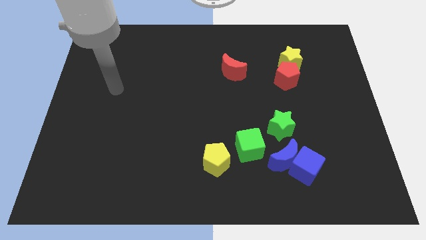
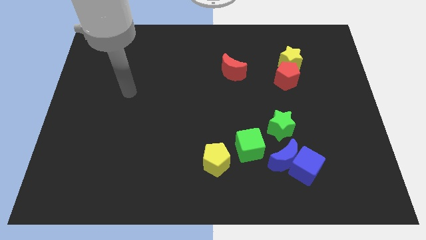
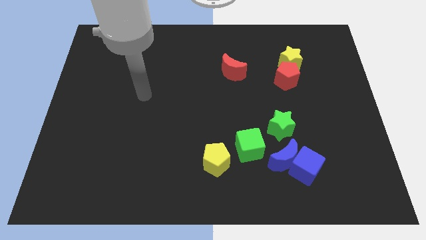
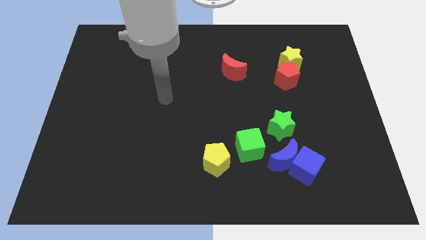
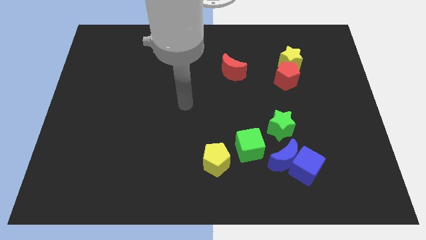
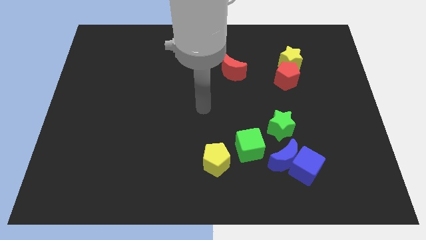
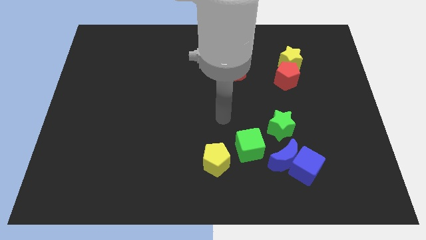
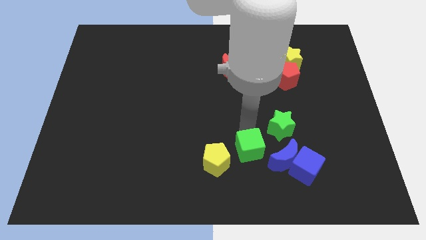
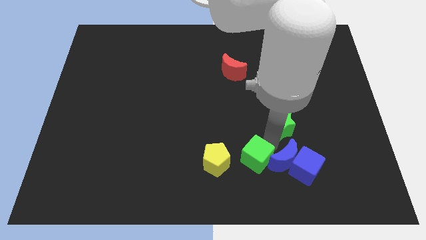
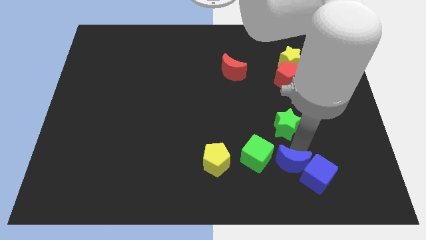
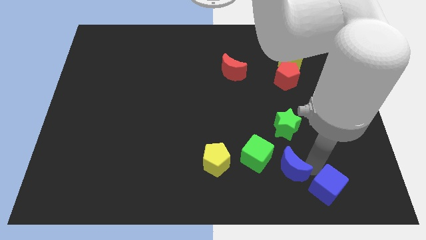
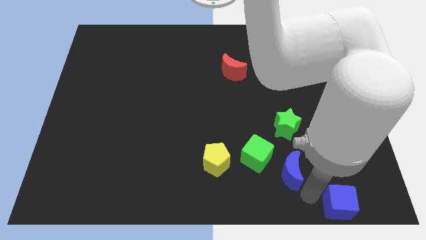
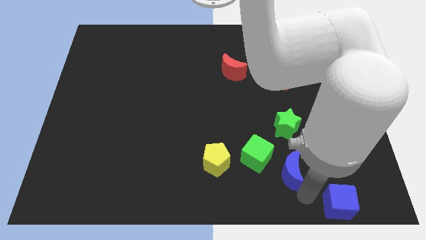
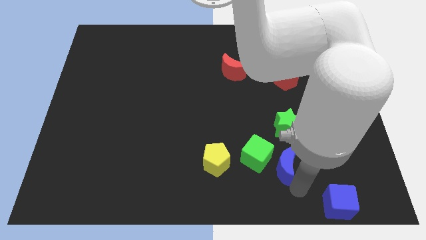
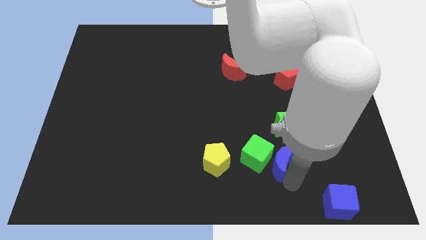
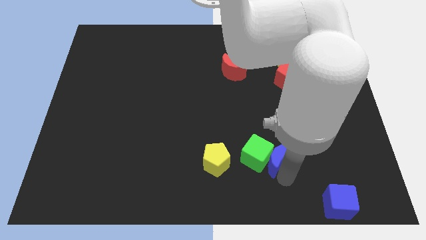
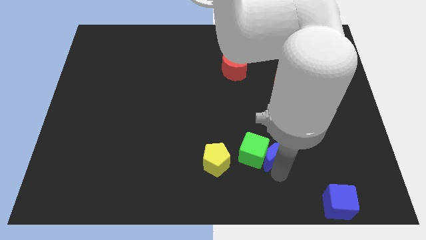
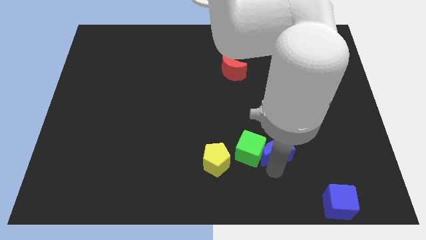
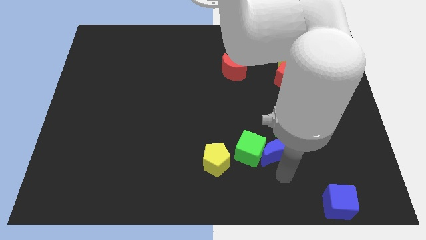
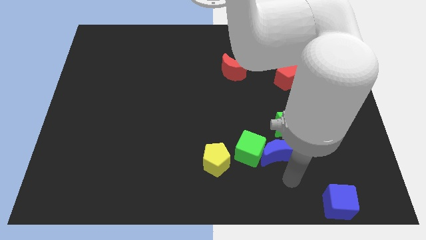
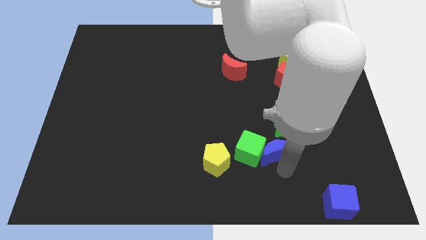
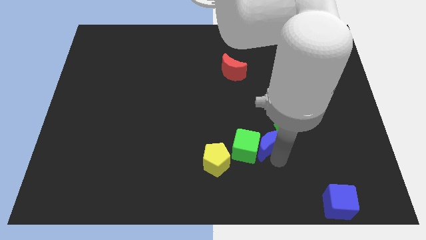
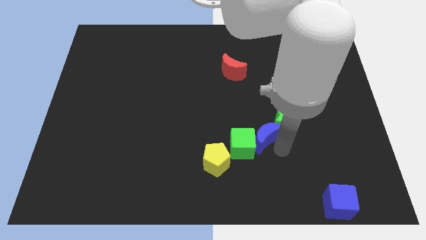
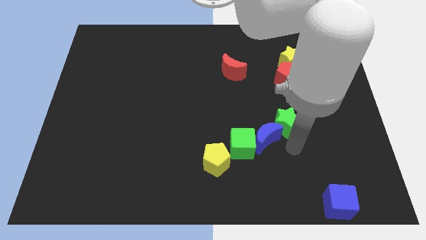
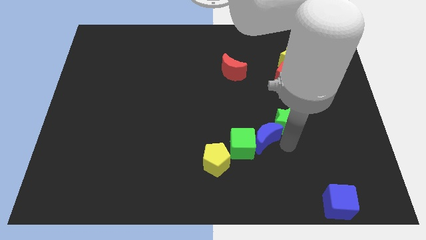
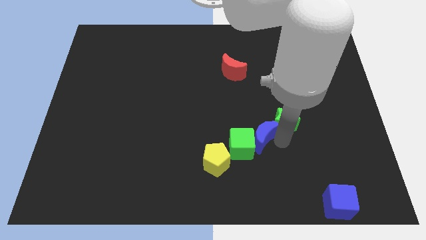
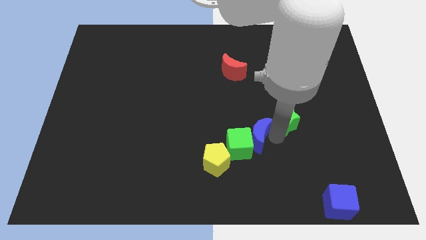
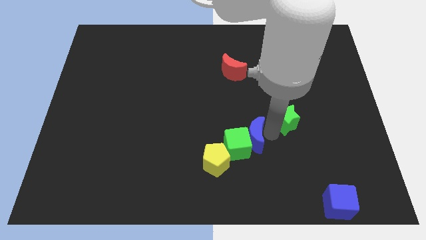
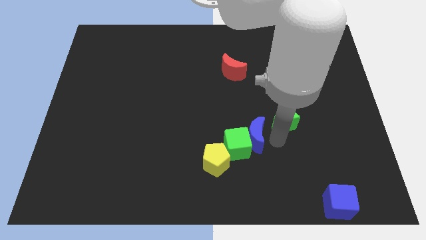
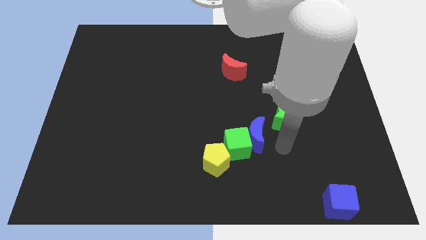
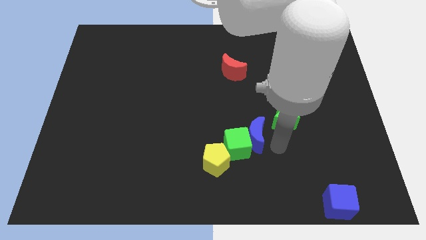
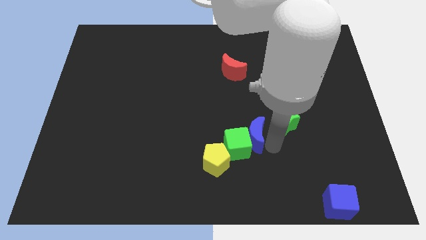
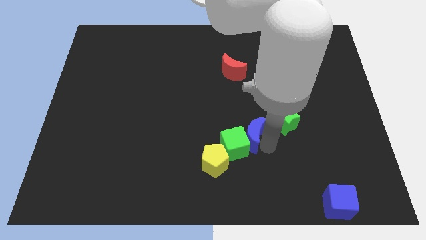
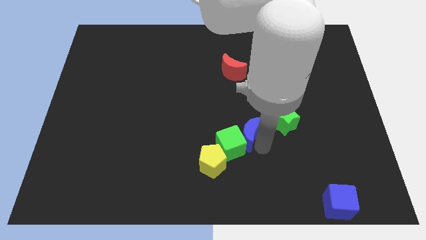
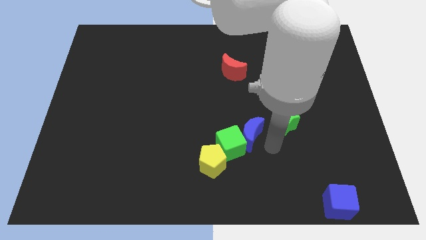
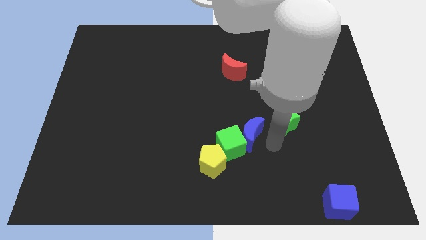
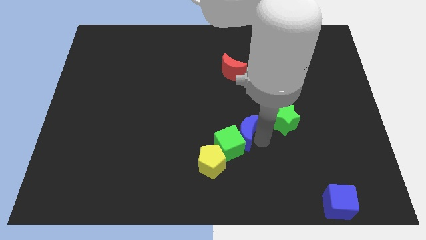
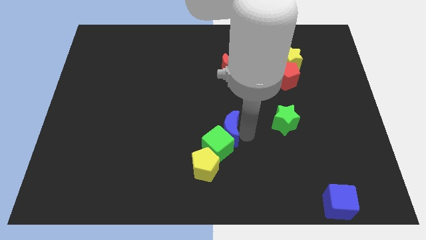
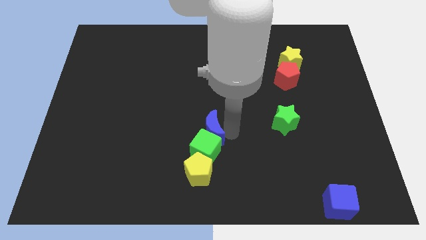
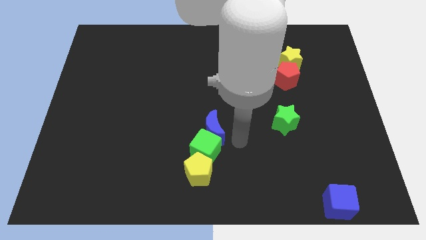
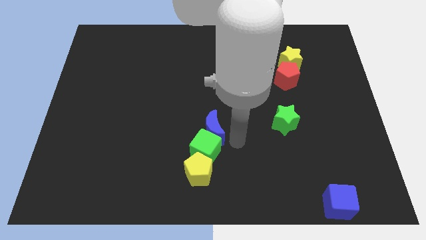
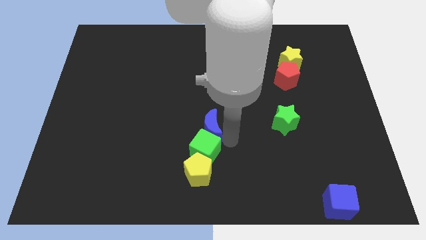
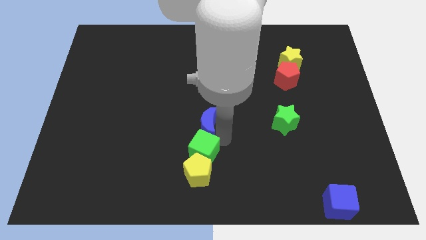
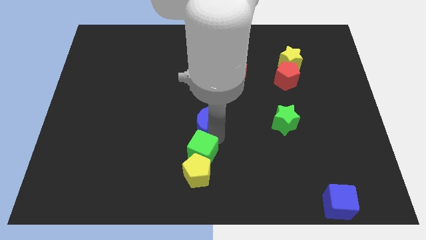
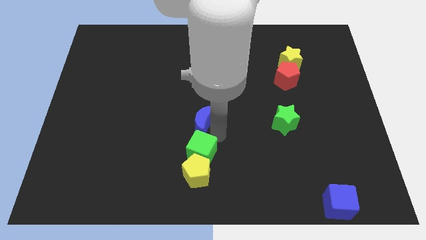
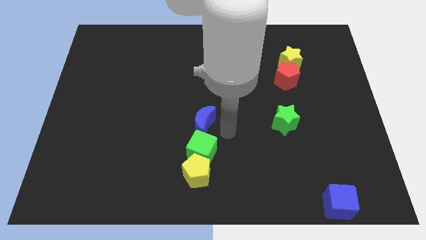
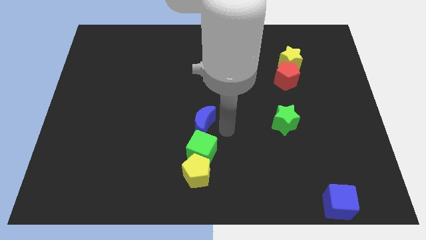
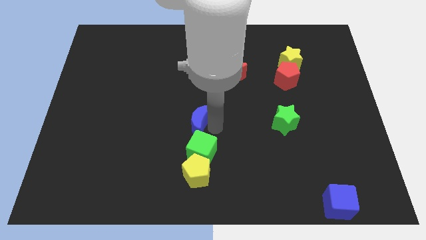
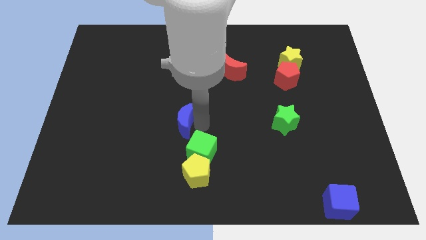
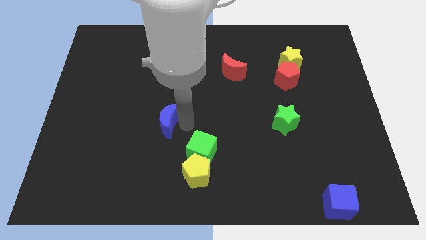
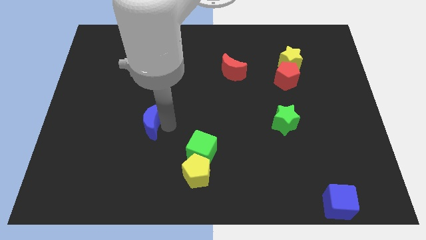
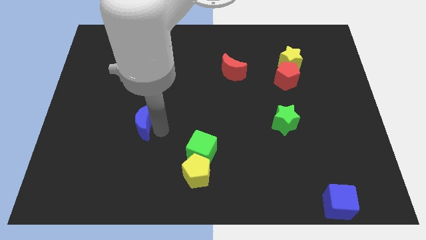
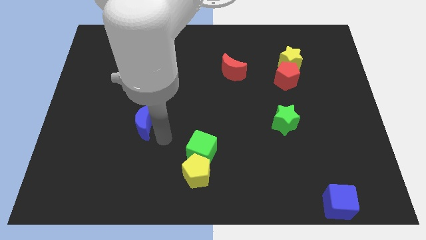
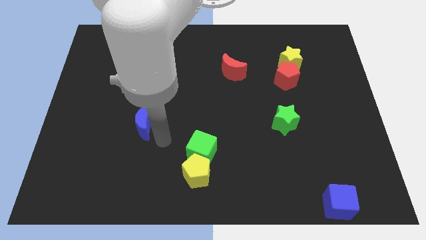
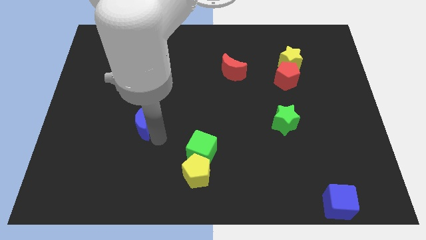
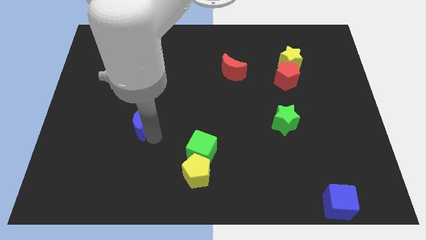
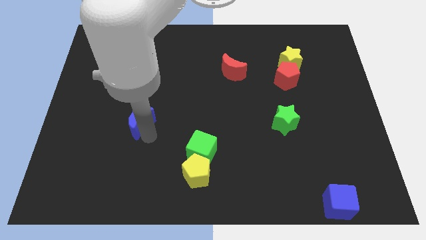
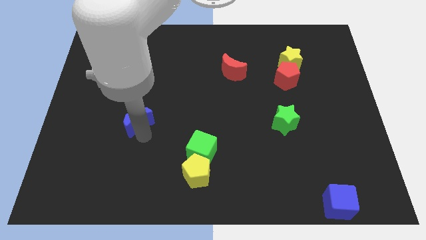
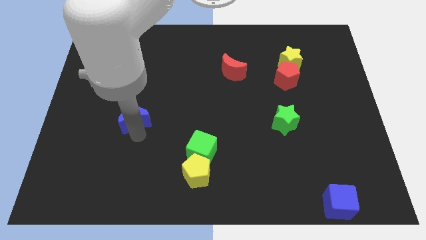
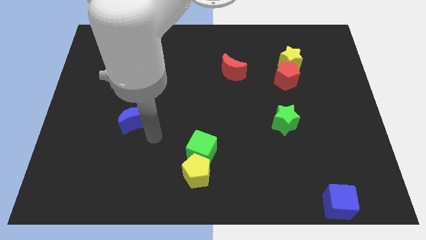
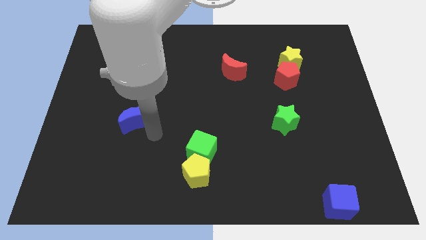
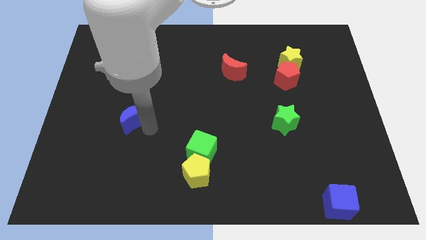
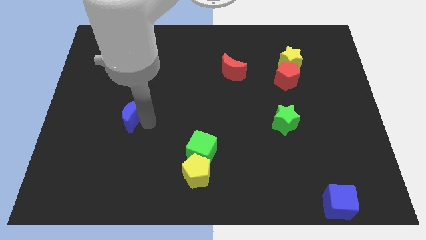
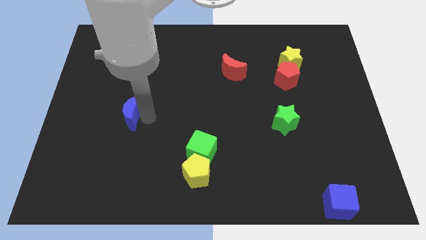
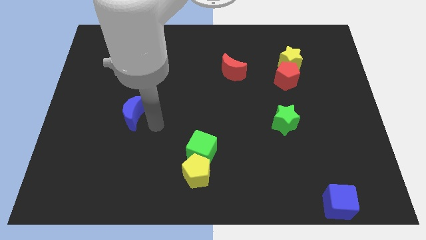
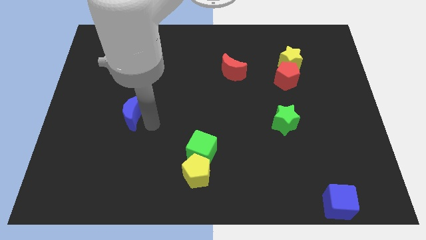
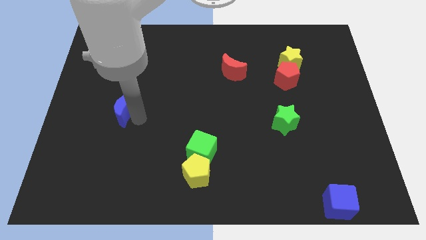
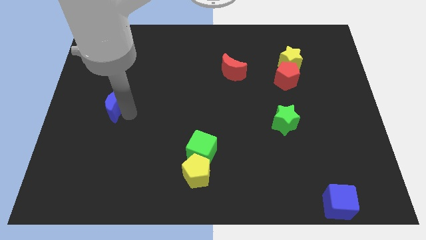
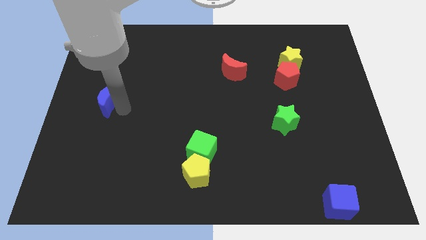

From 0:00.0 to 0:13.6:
move the blue moon to the center left
